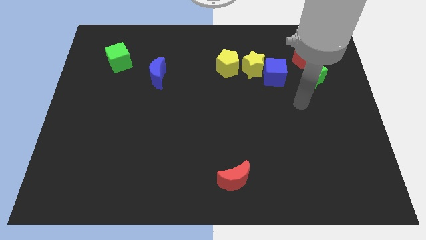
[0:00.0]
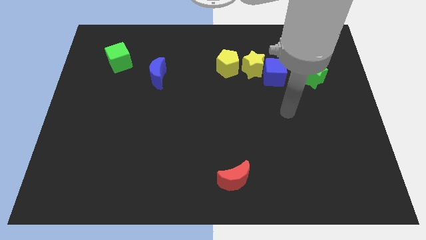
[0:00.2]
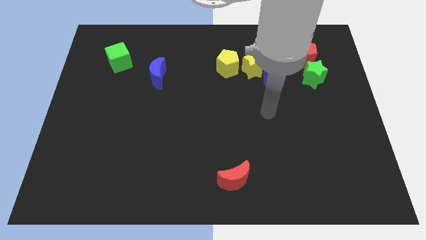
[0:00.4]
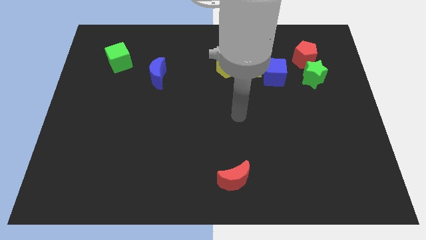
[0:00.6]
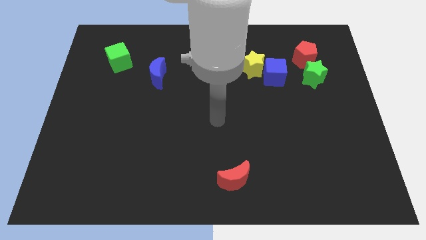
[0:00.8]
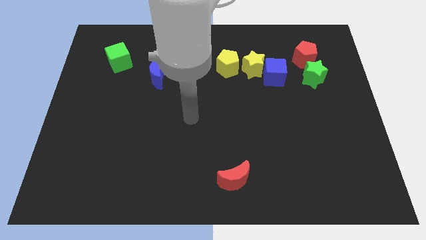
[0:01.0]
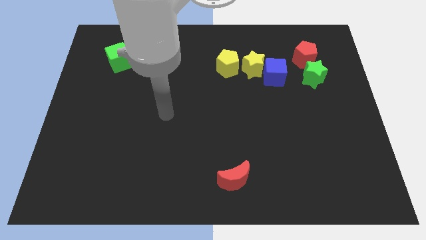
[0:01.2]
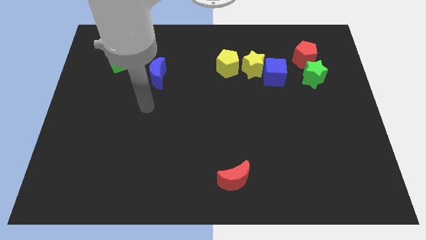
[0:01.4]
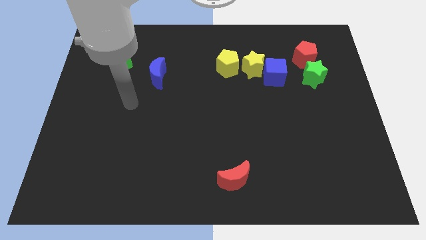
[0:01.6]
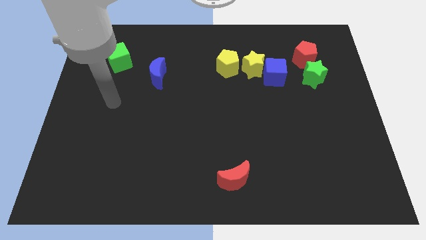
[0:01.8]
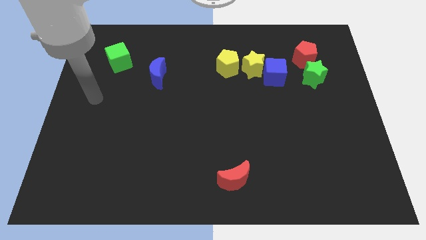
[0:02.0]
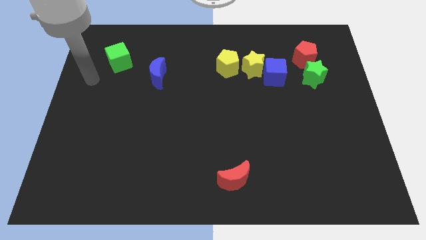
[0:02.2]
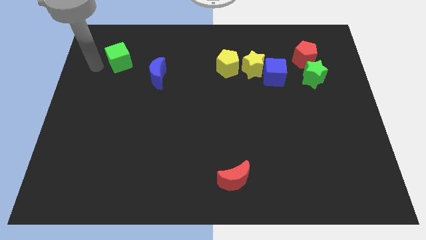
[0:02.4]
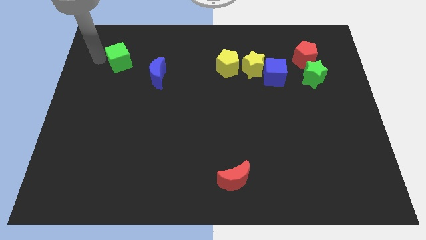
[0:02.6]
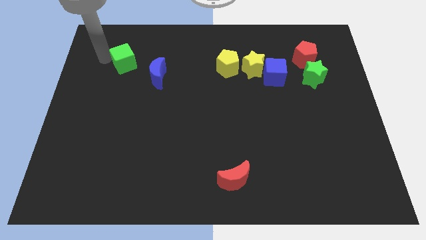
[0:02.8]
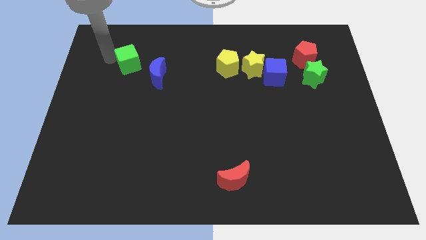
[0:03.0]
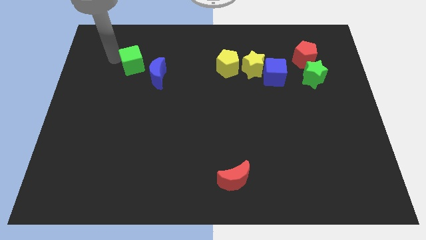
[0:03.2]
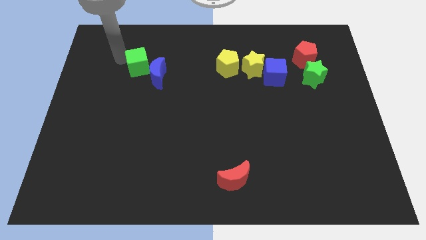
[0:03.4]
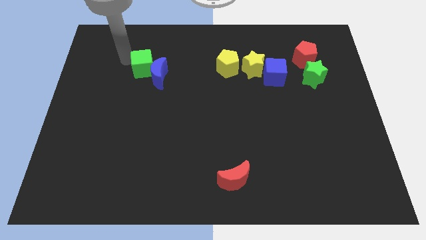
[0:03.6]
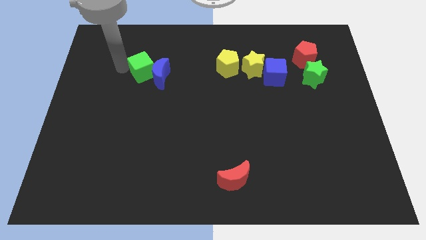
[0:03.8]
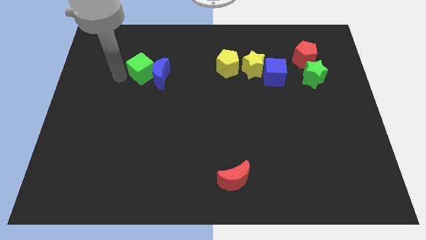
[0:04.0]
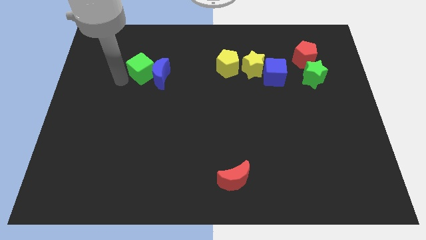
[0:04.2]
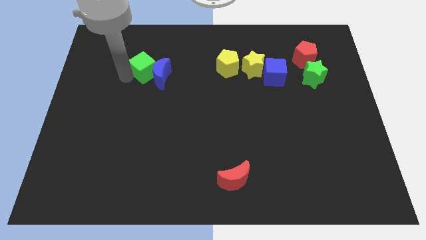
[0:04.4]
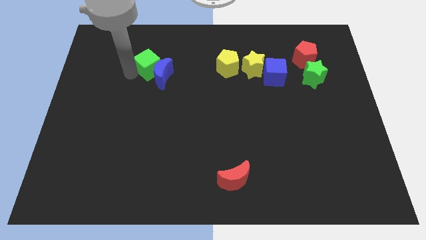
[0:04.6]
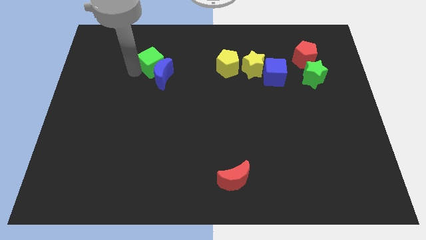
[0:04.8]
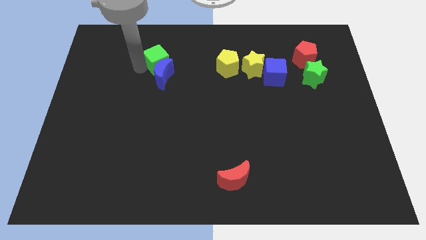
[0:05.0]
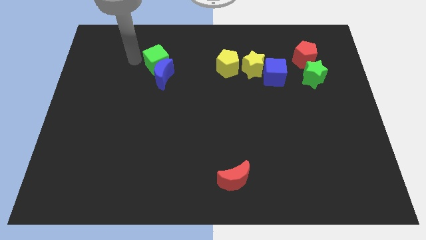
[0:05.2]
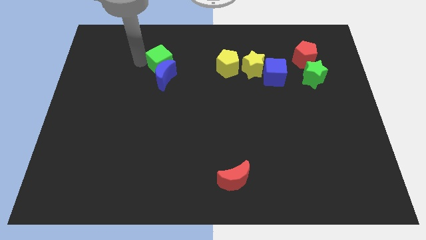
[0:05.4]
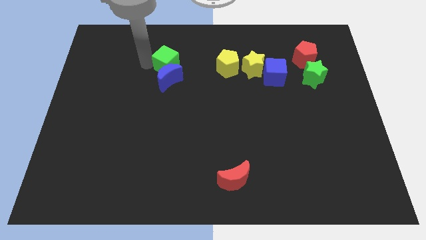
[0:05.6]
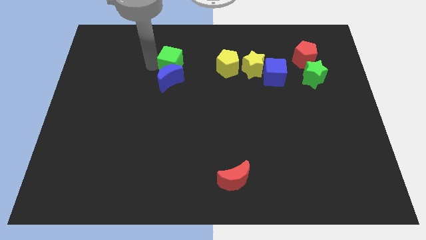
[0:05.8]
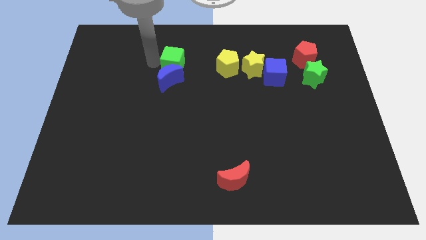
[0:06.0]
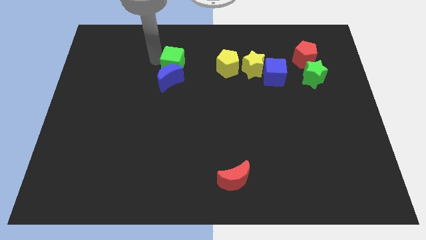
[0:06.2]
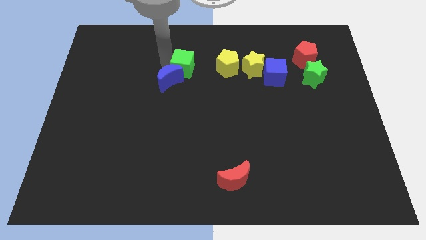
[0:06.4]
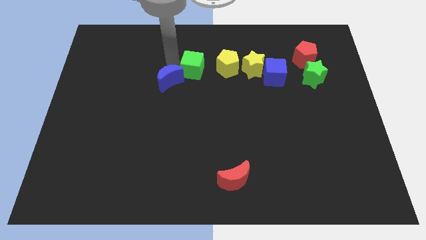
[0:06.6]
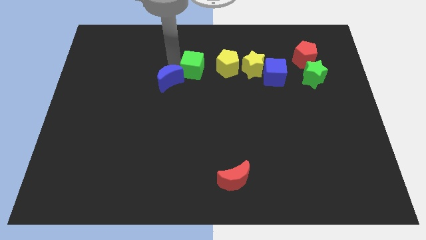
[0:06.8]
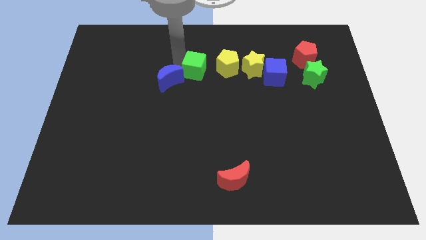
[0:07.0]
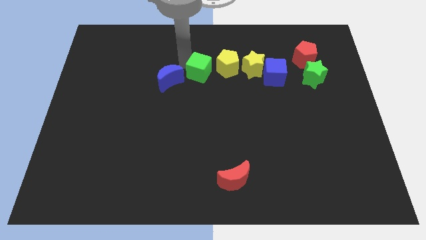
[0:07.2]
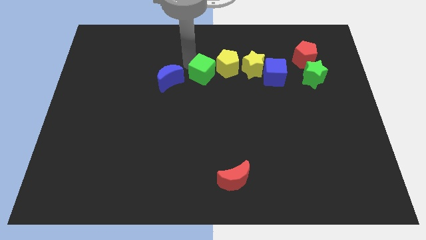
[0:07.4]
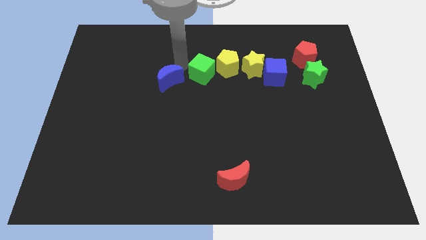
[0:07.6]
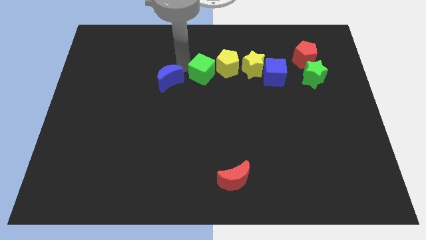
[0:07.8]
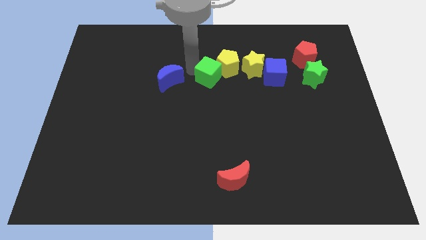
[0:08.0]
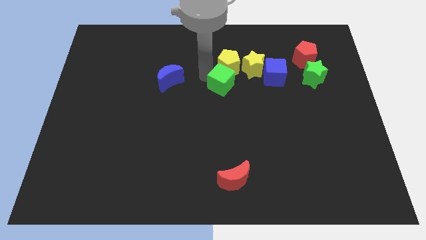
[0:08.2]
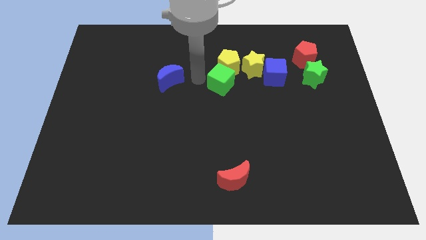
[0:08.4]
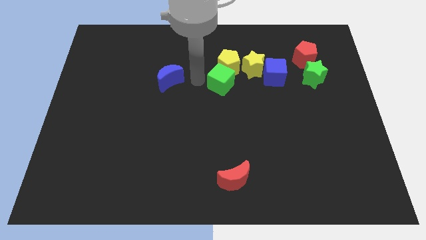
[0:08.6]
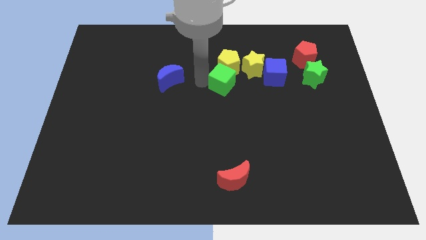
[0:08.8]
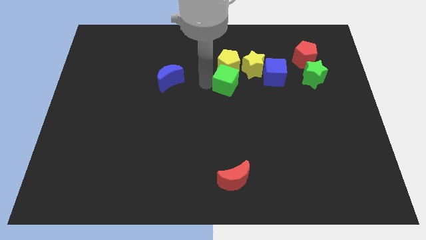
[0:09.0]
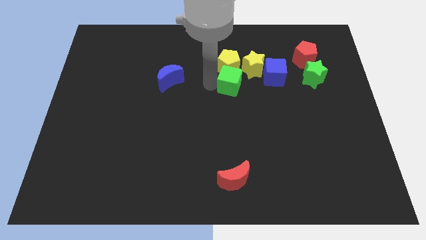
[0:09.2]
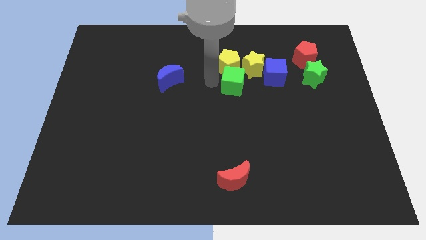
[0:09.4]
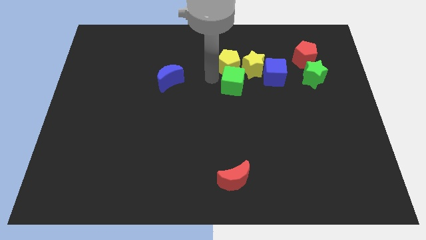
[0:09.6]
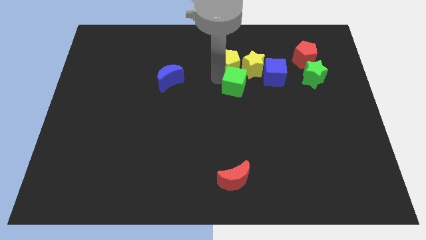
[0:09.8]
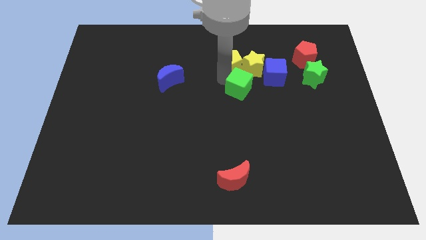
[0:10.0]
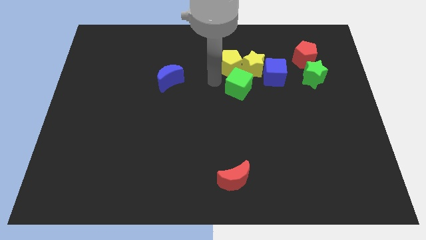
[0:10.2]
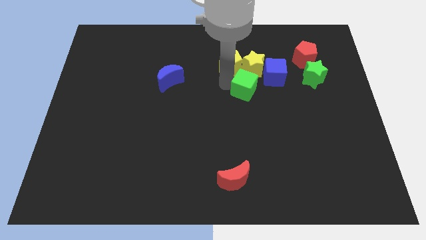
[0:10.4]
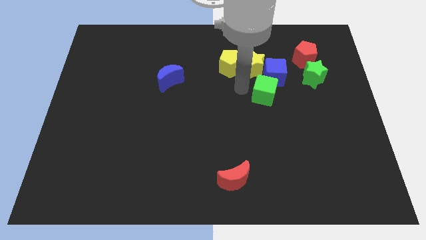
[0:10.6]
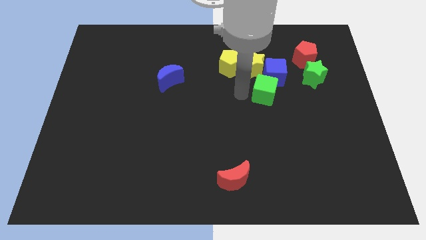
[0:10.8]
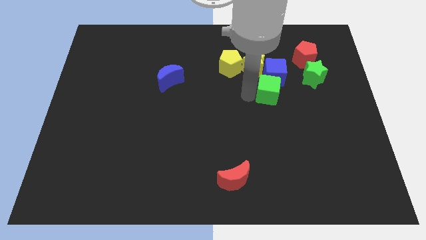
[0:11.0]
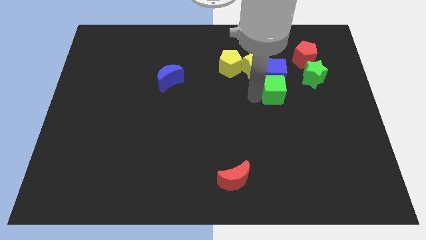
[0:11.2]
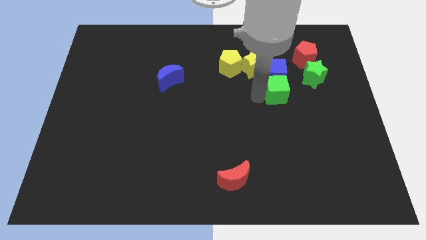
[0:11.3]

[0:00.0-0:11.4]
move the green cube to the bottom left of the green star

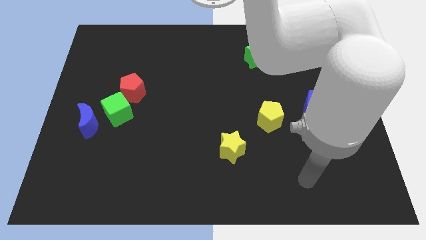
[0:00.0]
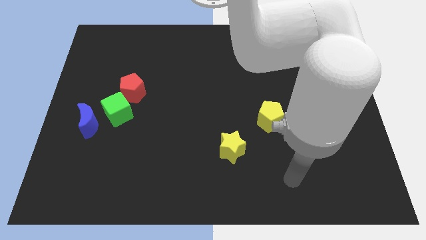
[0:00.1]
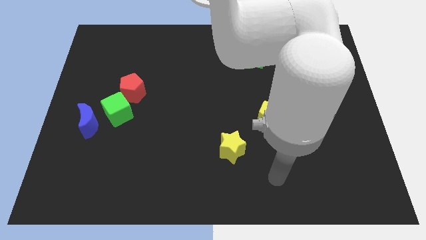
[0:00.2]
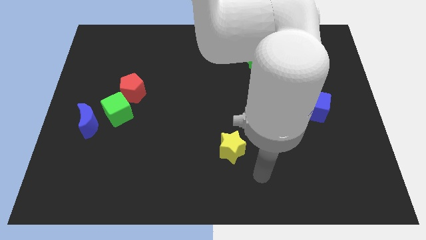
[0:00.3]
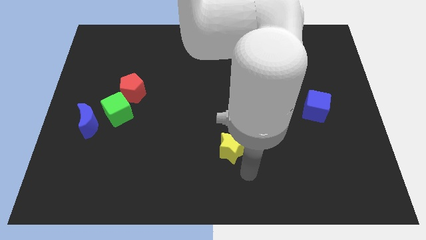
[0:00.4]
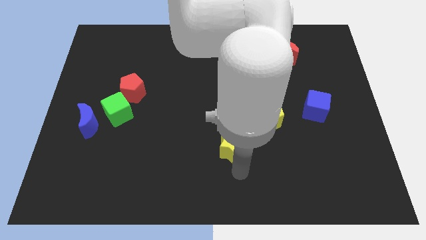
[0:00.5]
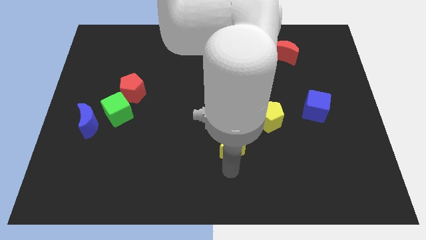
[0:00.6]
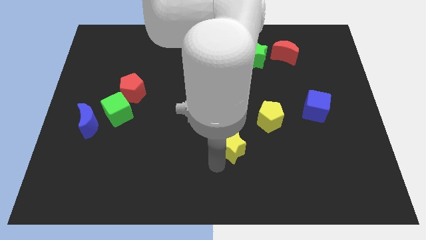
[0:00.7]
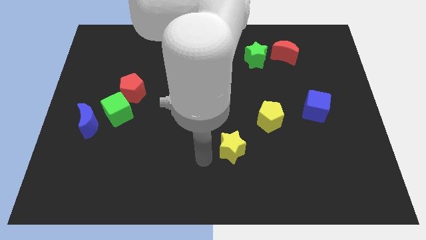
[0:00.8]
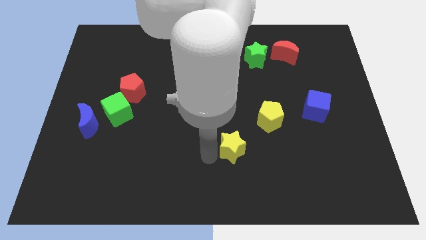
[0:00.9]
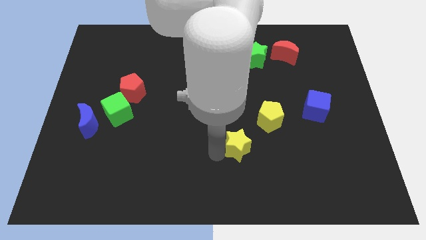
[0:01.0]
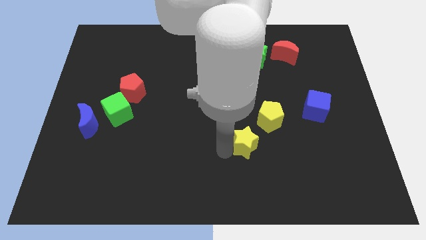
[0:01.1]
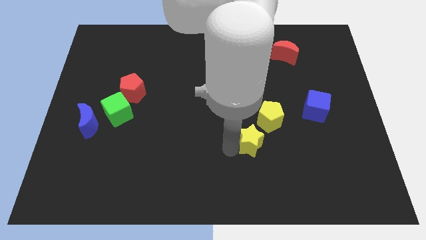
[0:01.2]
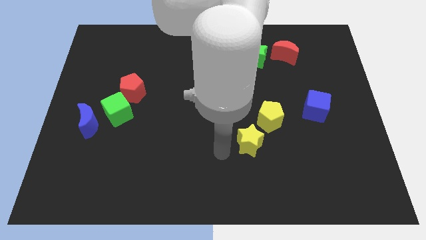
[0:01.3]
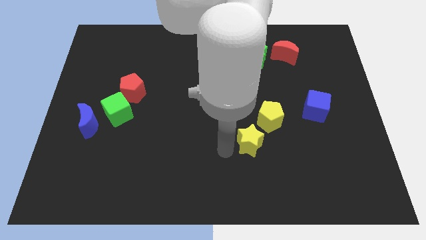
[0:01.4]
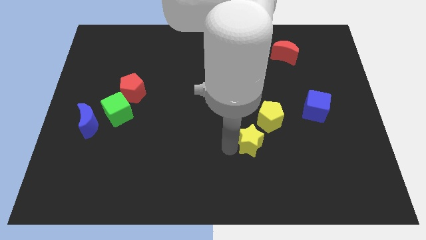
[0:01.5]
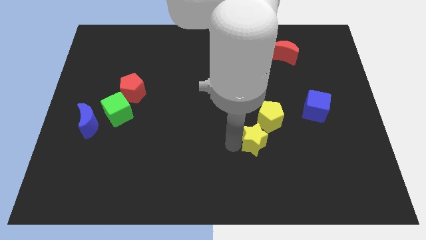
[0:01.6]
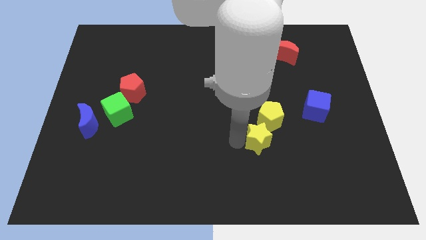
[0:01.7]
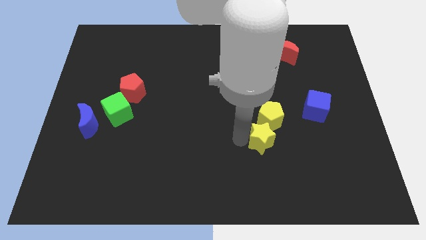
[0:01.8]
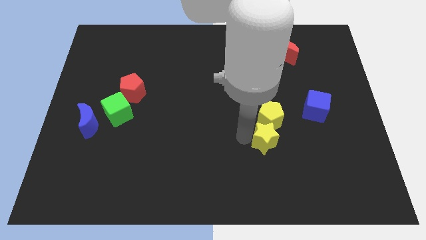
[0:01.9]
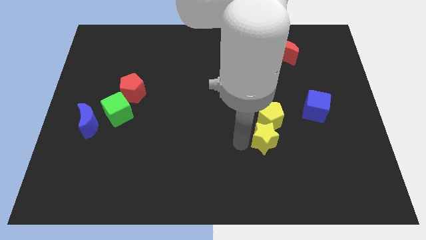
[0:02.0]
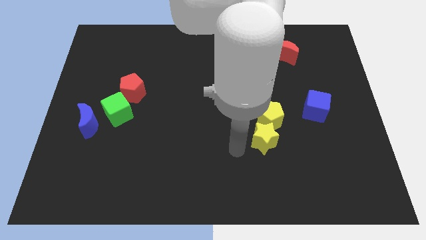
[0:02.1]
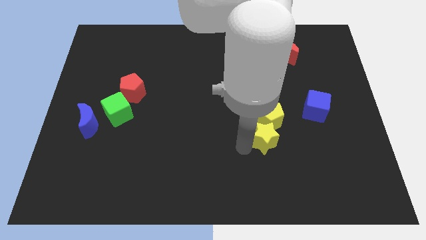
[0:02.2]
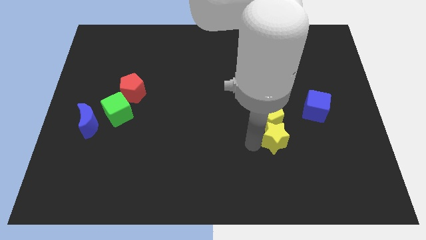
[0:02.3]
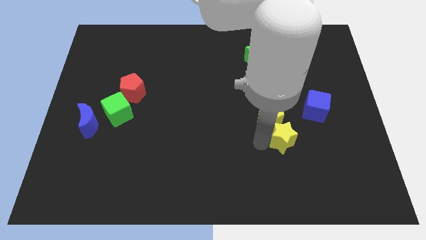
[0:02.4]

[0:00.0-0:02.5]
put the yellow star to the bottom left side of the blue cube
